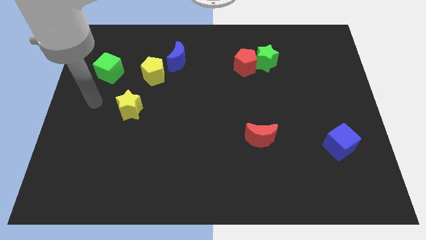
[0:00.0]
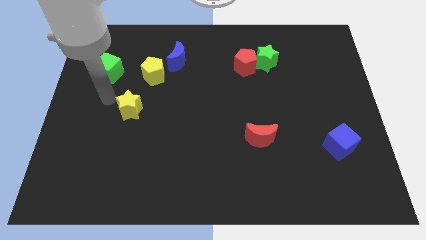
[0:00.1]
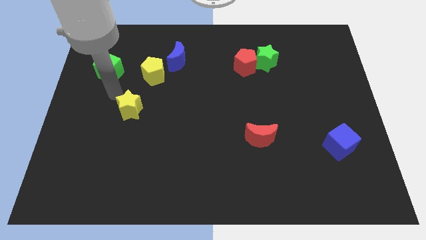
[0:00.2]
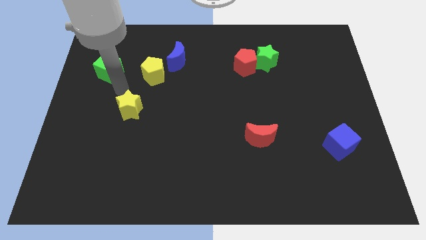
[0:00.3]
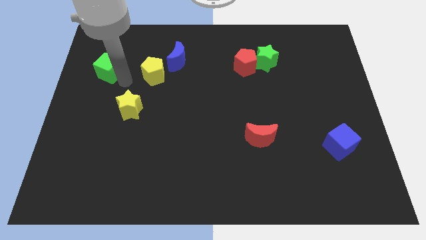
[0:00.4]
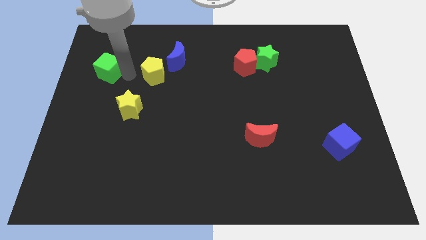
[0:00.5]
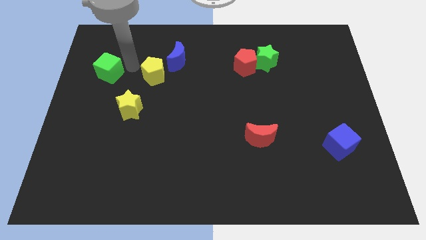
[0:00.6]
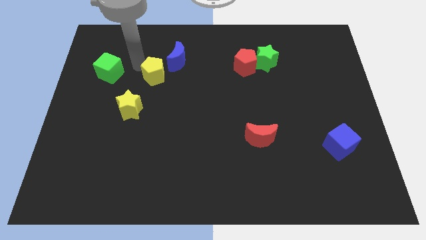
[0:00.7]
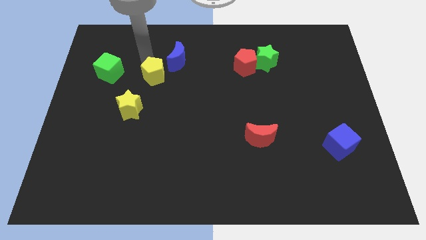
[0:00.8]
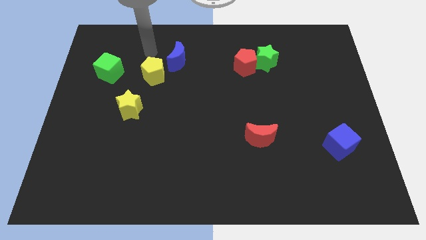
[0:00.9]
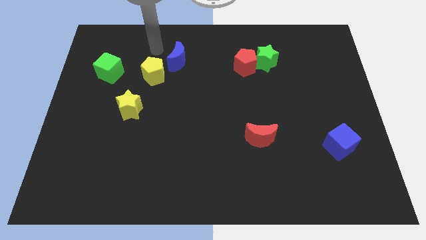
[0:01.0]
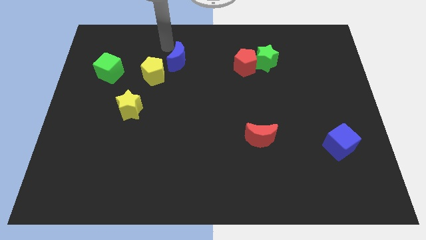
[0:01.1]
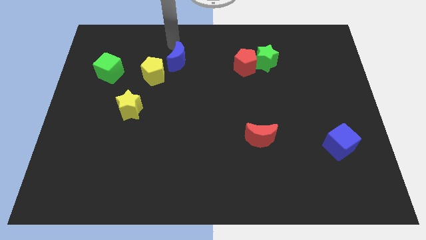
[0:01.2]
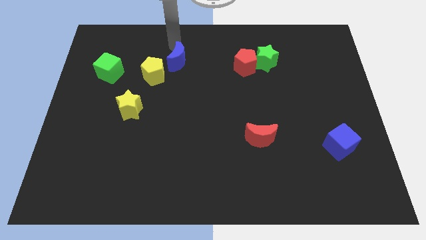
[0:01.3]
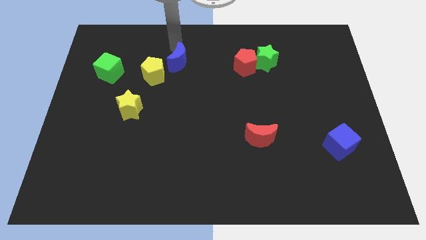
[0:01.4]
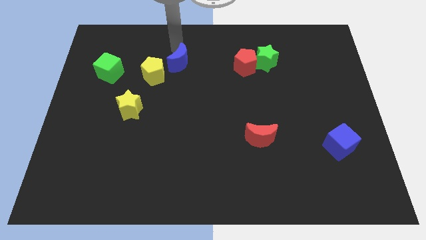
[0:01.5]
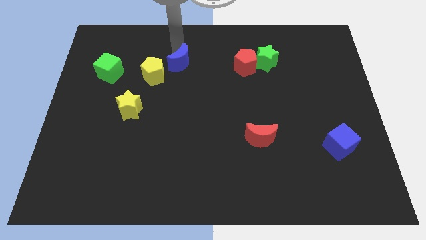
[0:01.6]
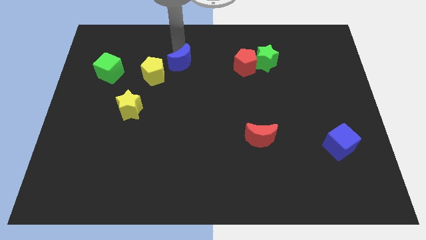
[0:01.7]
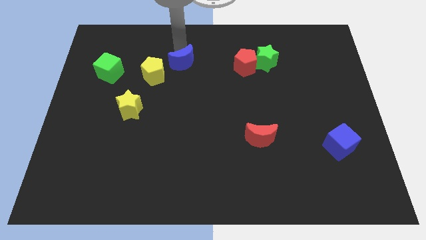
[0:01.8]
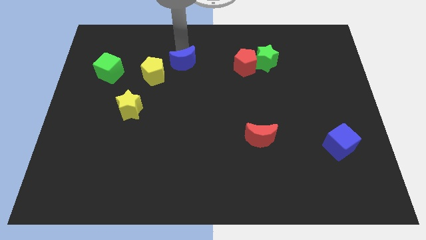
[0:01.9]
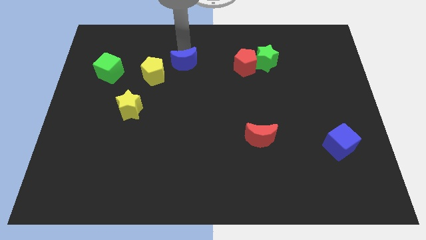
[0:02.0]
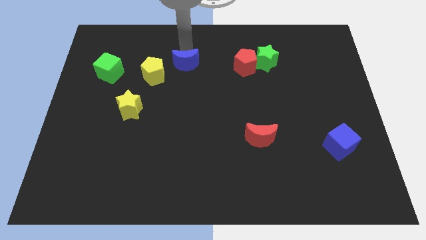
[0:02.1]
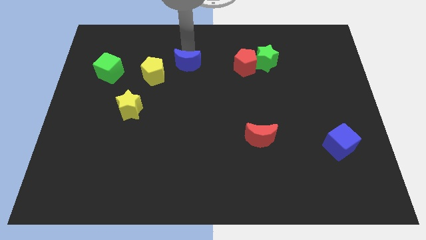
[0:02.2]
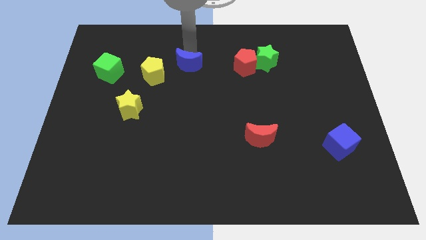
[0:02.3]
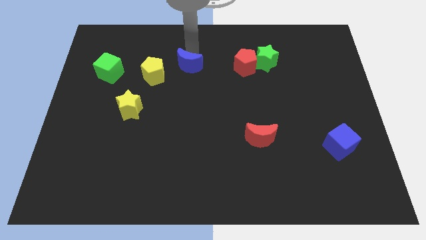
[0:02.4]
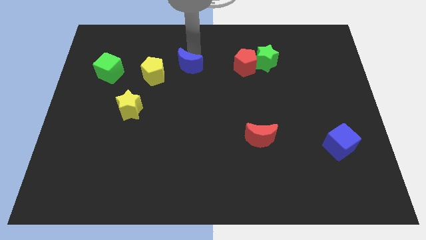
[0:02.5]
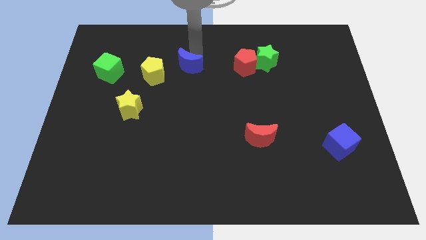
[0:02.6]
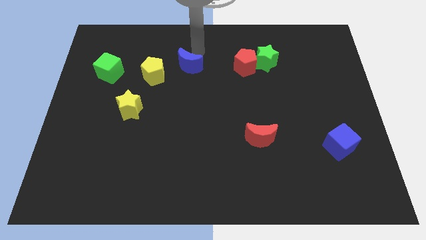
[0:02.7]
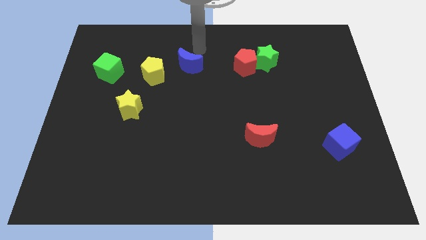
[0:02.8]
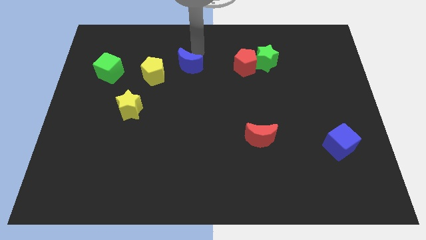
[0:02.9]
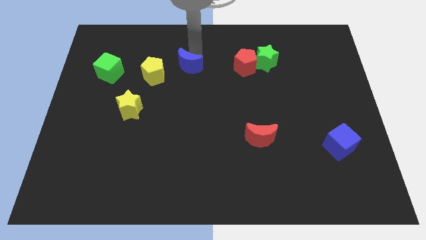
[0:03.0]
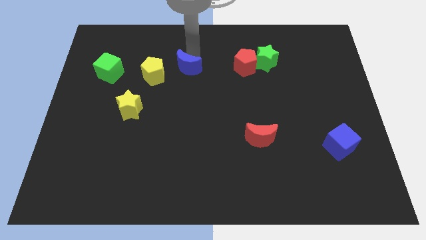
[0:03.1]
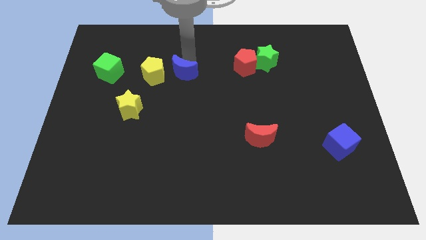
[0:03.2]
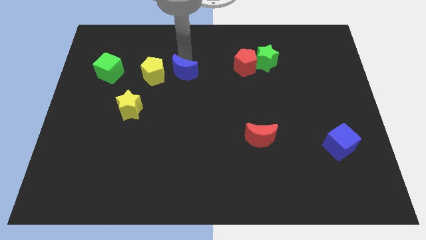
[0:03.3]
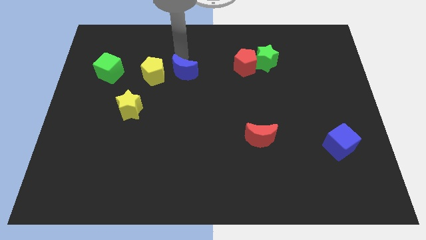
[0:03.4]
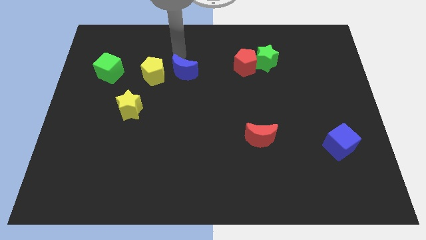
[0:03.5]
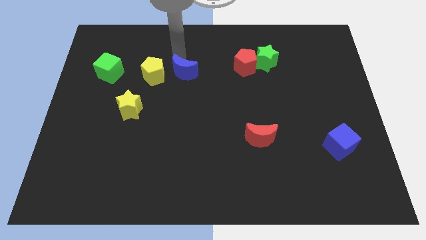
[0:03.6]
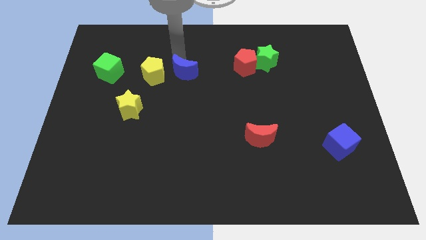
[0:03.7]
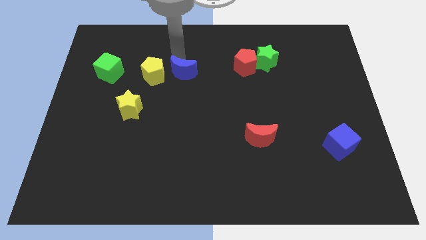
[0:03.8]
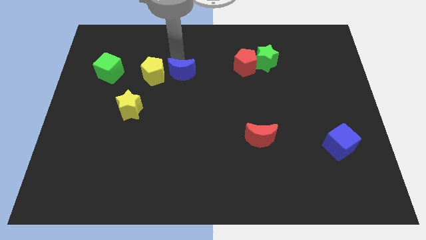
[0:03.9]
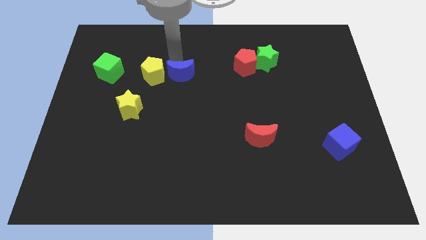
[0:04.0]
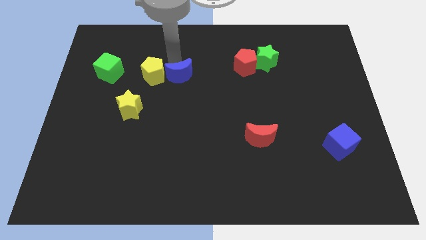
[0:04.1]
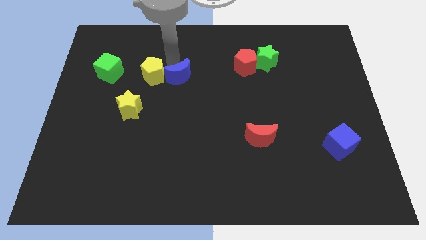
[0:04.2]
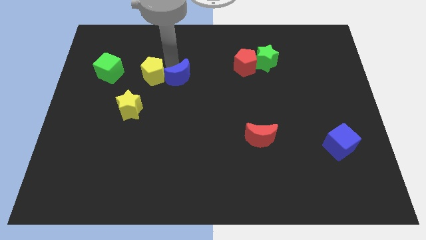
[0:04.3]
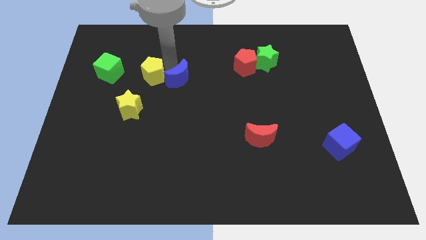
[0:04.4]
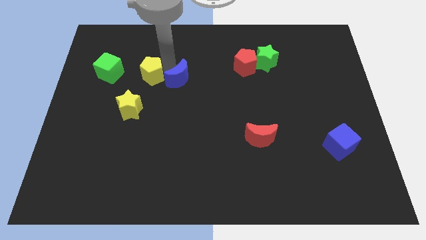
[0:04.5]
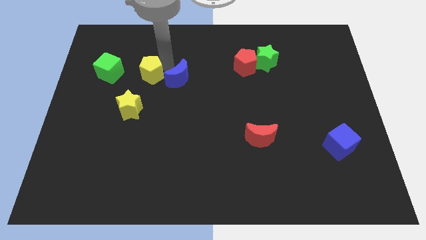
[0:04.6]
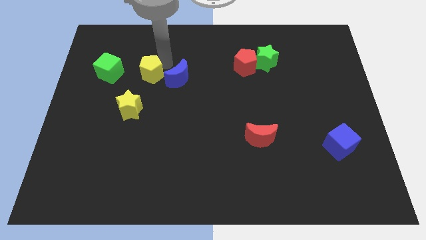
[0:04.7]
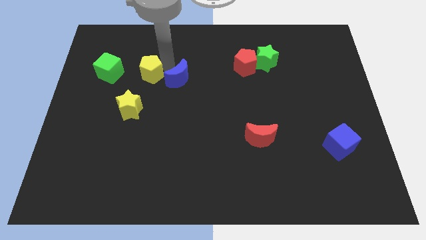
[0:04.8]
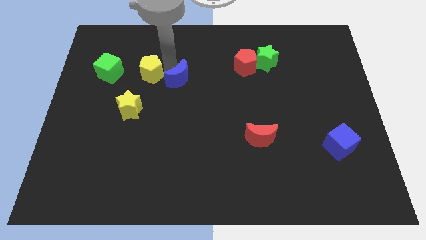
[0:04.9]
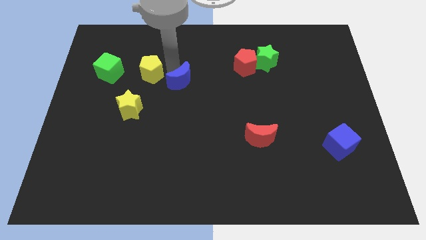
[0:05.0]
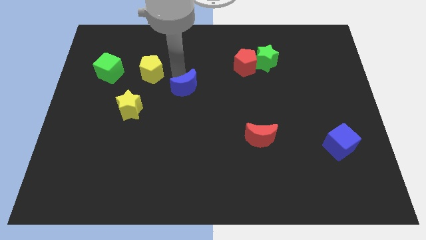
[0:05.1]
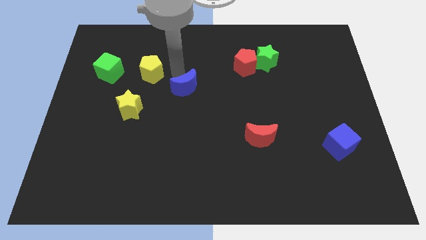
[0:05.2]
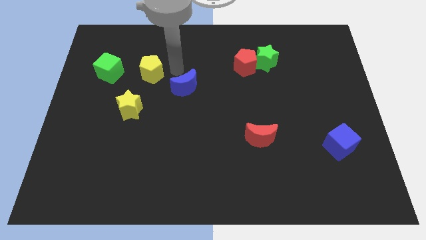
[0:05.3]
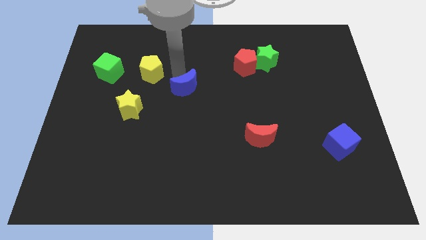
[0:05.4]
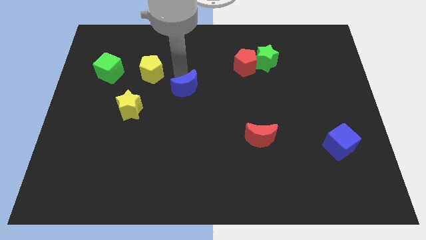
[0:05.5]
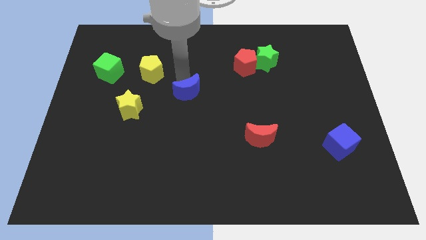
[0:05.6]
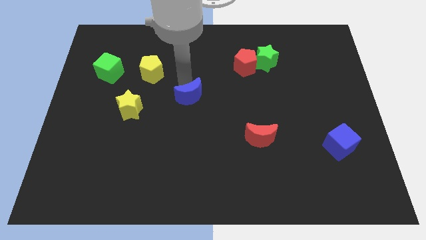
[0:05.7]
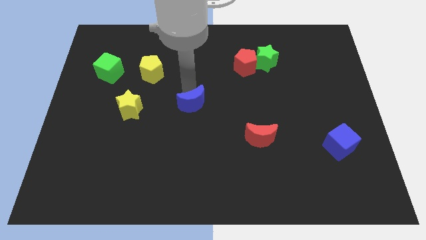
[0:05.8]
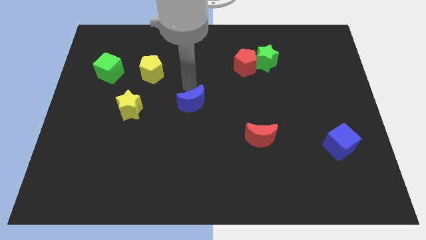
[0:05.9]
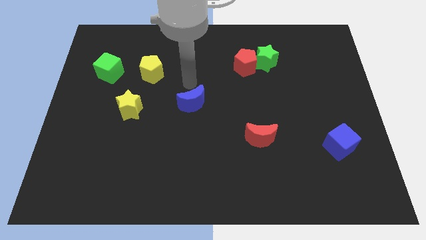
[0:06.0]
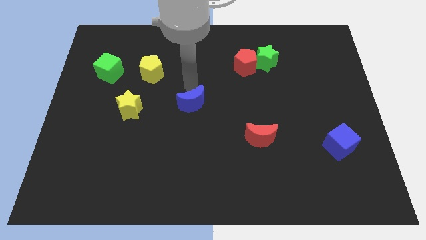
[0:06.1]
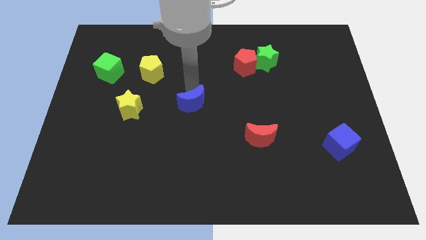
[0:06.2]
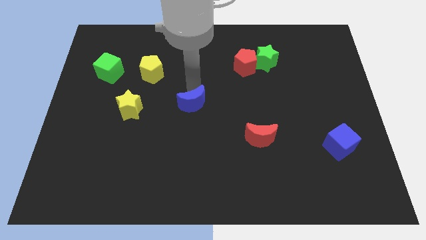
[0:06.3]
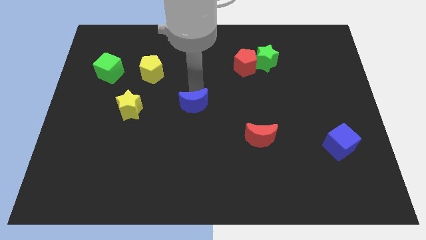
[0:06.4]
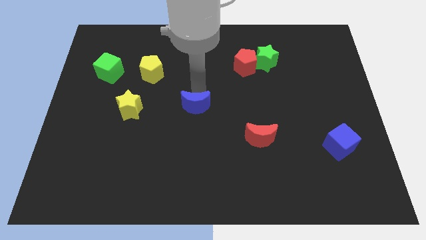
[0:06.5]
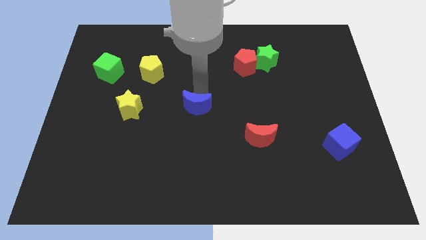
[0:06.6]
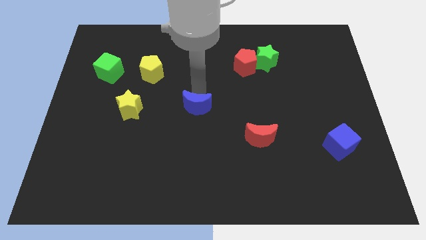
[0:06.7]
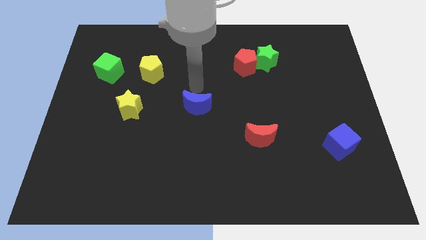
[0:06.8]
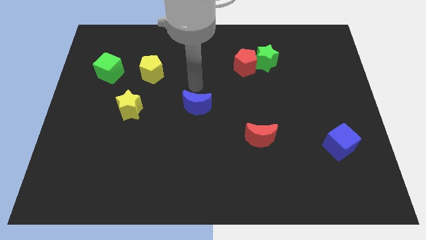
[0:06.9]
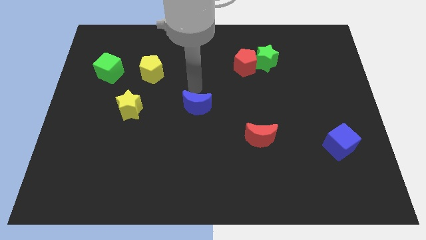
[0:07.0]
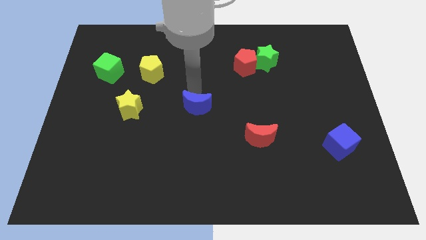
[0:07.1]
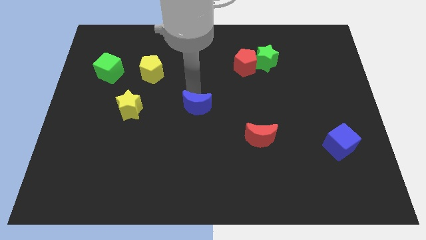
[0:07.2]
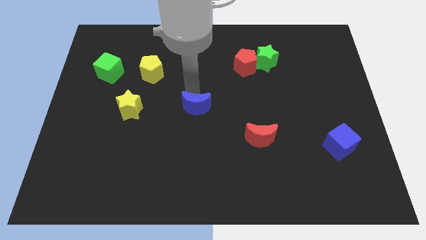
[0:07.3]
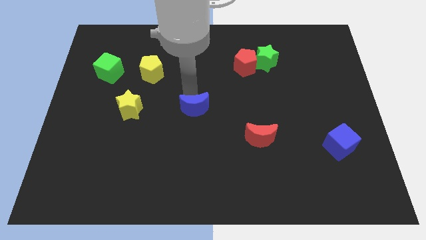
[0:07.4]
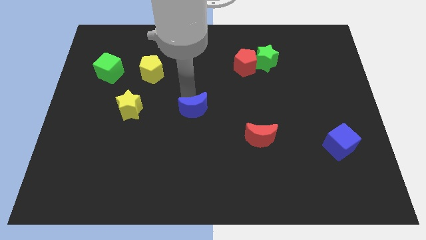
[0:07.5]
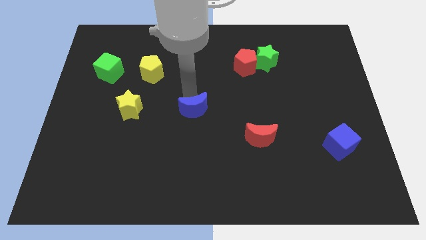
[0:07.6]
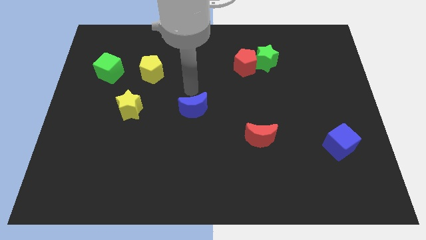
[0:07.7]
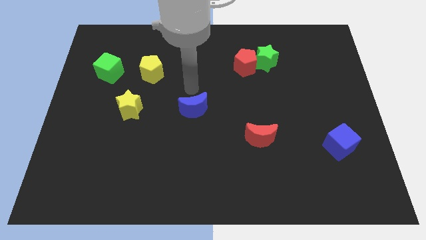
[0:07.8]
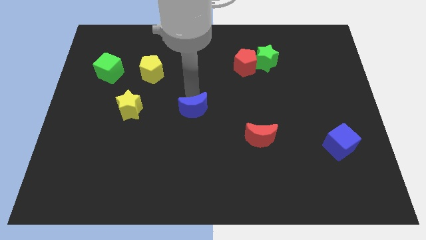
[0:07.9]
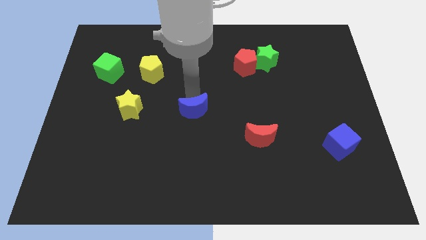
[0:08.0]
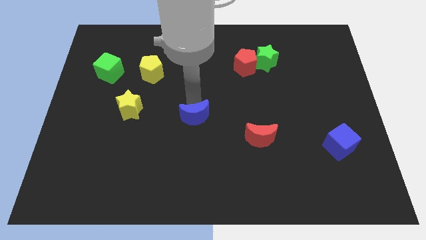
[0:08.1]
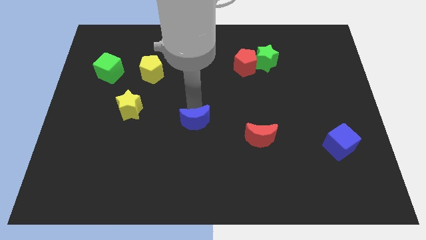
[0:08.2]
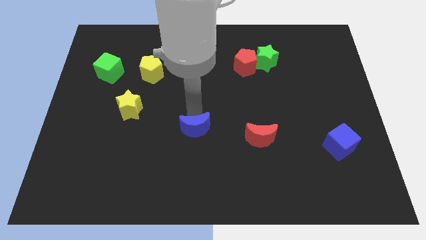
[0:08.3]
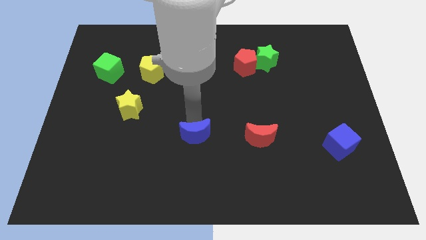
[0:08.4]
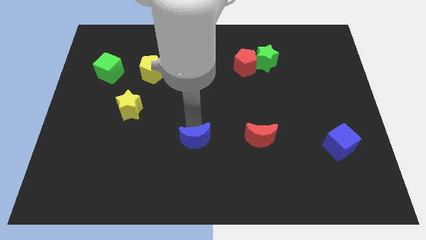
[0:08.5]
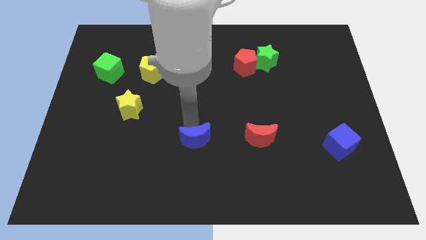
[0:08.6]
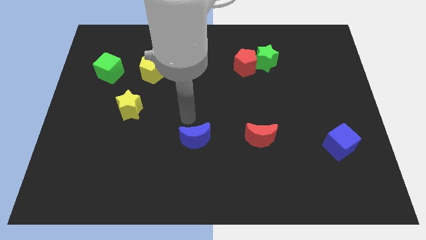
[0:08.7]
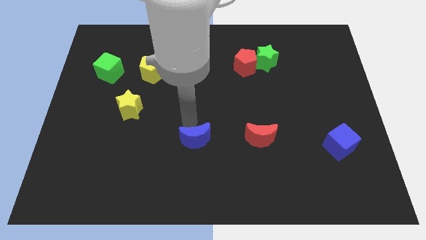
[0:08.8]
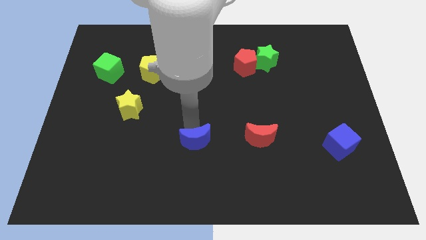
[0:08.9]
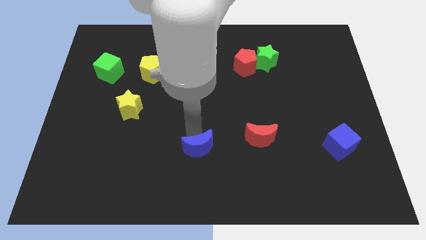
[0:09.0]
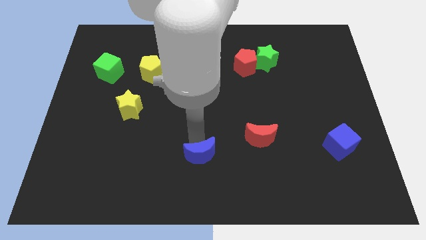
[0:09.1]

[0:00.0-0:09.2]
slide the blue moon to the bottom side
